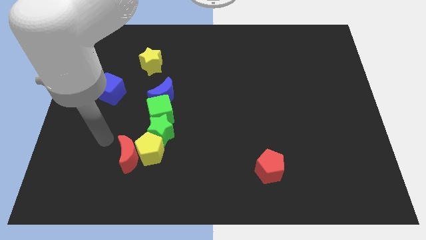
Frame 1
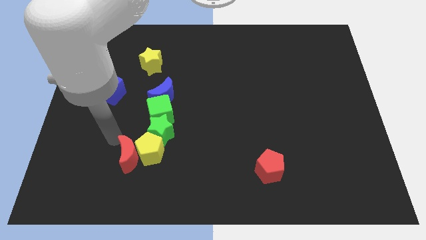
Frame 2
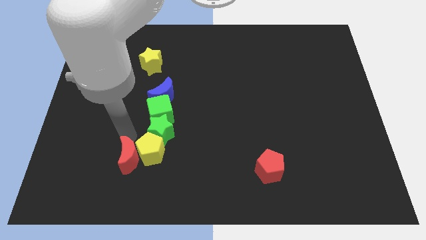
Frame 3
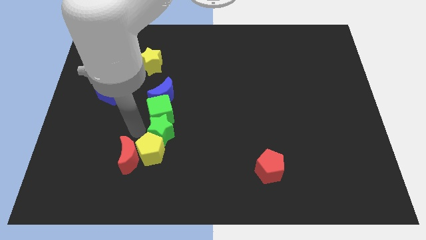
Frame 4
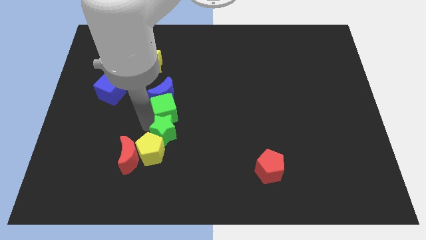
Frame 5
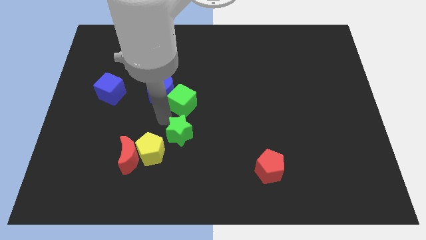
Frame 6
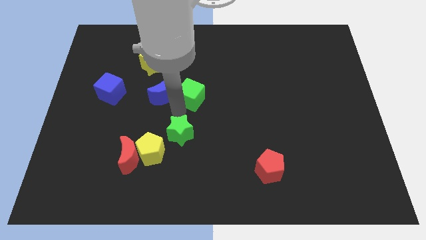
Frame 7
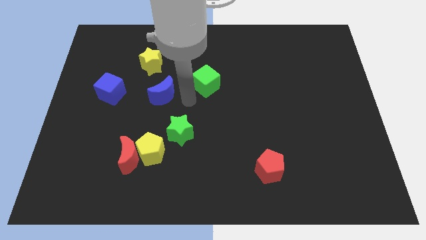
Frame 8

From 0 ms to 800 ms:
move the blue moon away from the green cube

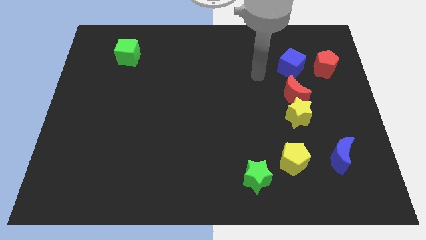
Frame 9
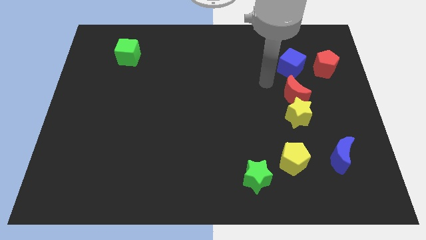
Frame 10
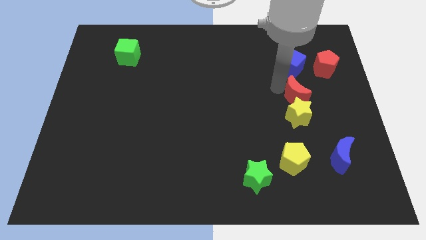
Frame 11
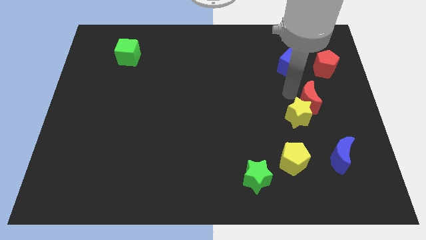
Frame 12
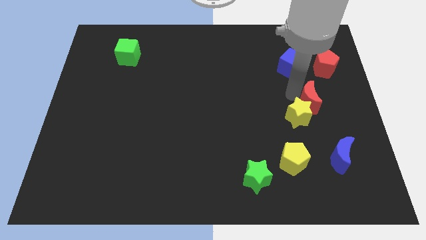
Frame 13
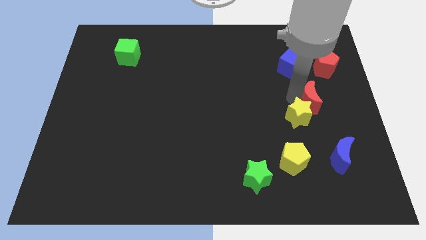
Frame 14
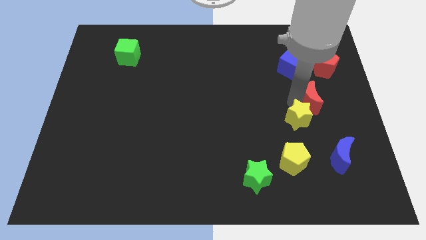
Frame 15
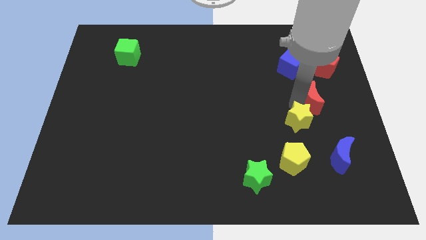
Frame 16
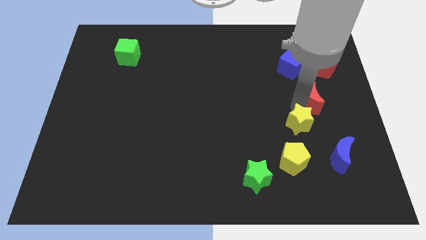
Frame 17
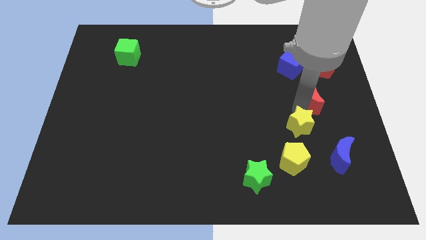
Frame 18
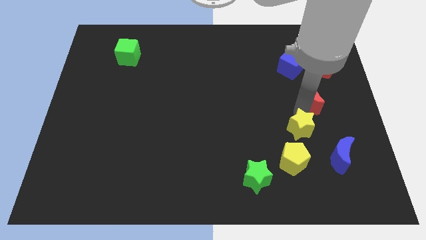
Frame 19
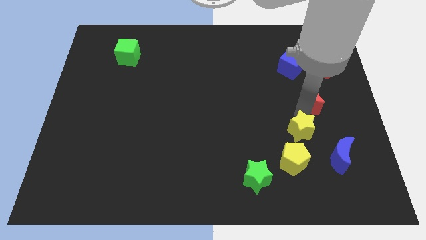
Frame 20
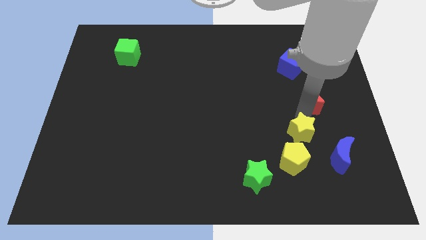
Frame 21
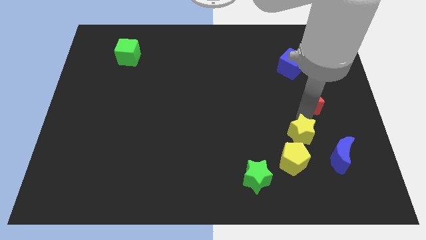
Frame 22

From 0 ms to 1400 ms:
pull the yellow star apart from the red moon

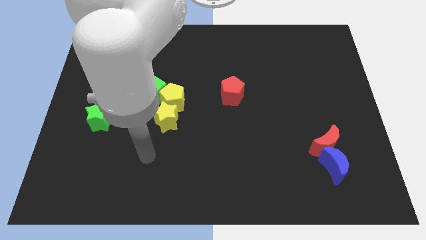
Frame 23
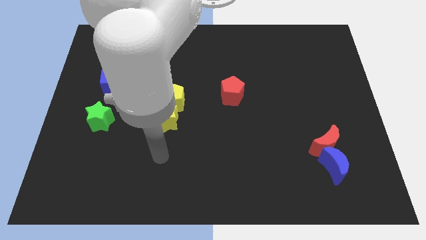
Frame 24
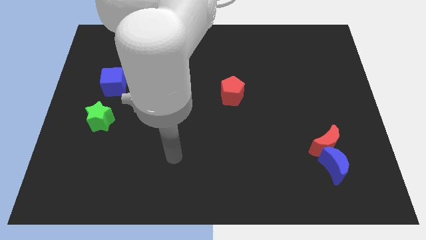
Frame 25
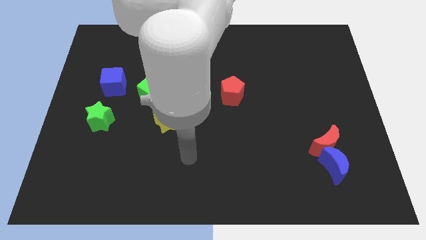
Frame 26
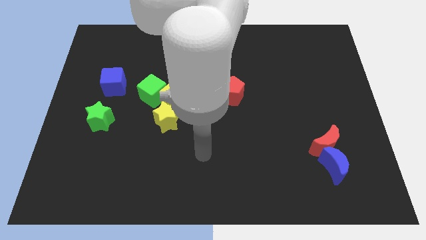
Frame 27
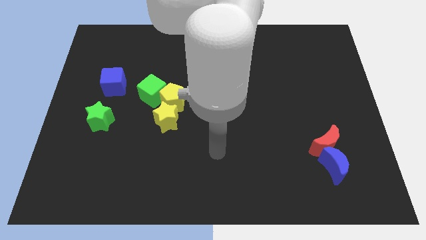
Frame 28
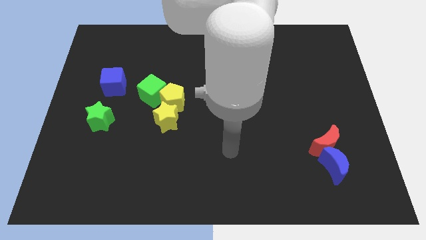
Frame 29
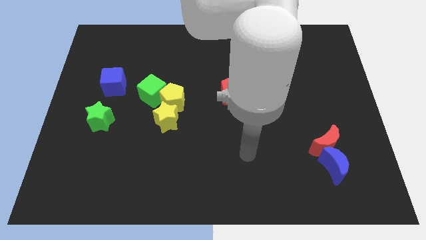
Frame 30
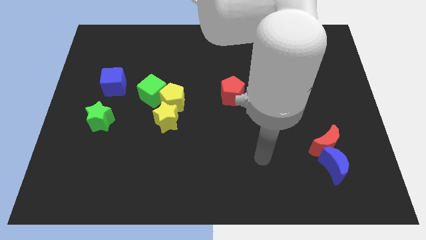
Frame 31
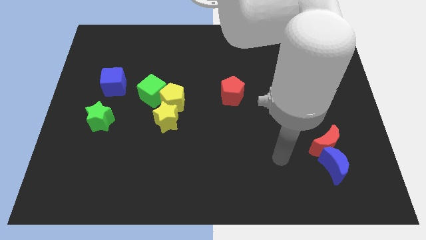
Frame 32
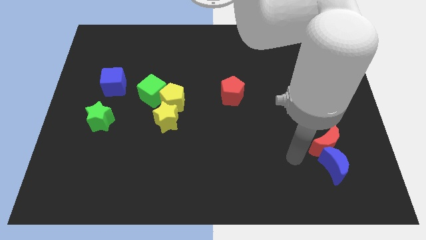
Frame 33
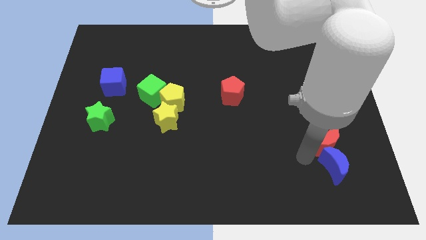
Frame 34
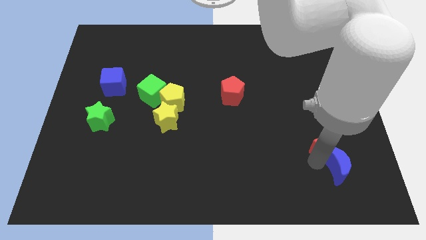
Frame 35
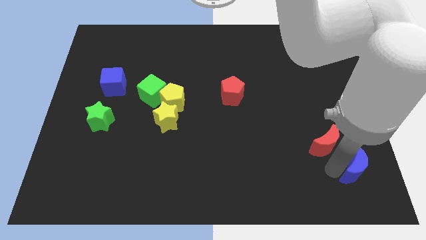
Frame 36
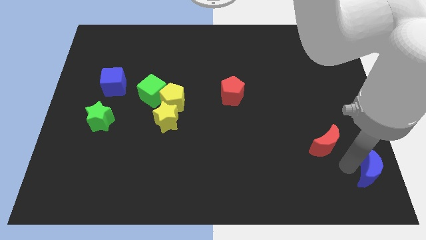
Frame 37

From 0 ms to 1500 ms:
move the red moon away from the blue moon

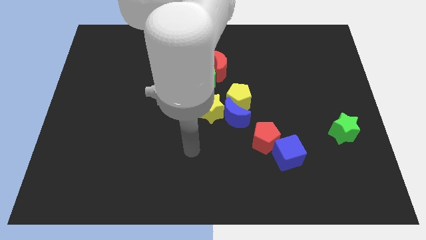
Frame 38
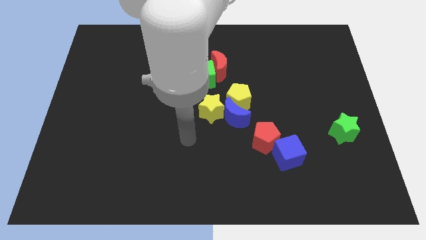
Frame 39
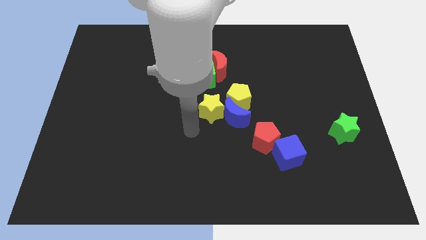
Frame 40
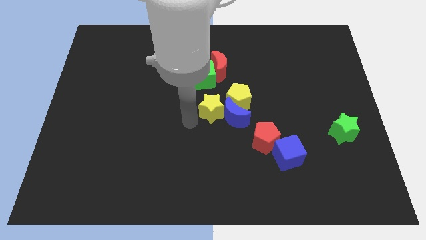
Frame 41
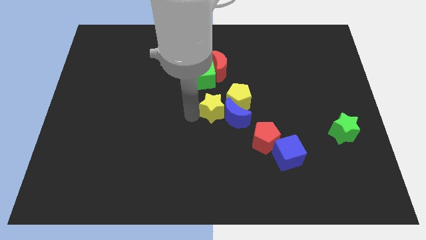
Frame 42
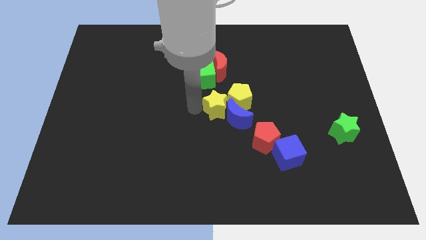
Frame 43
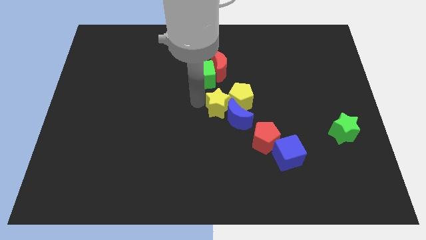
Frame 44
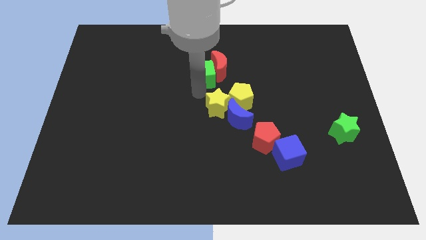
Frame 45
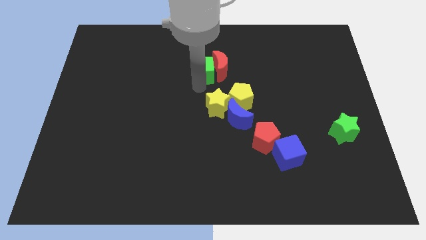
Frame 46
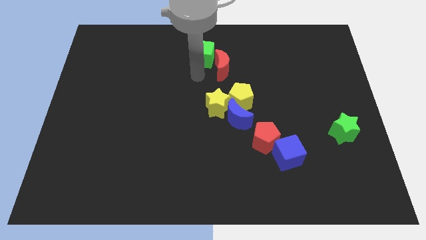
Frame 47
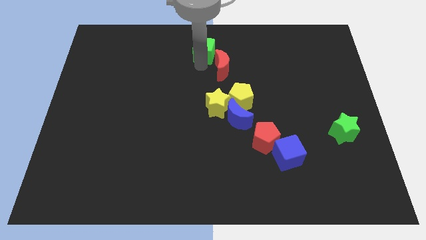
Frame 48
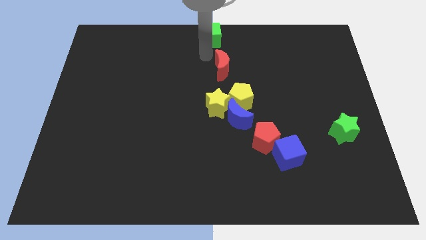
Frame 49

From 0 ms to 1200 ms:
move the red moon away from the green cube

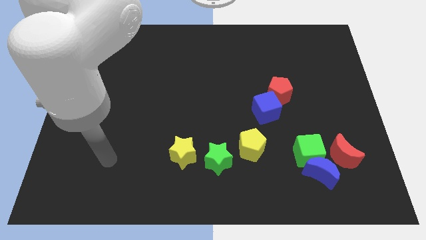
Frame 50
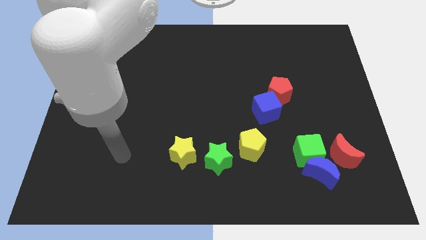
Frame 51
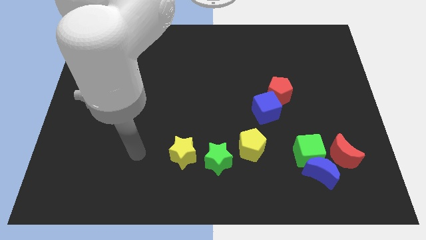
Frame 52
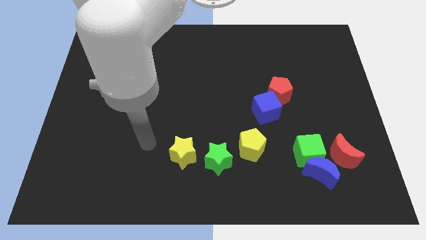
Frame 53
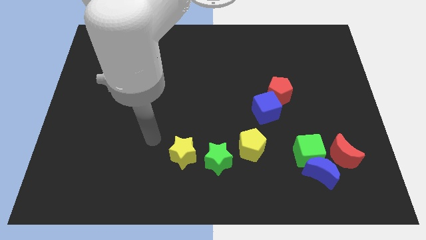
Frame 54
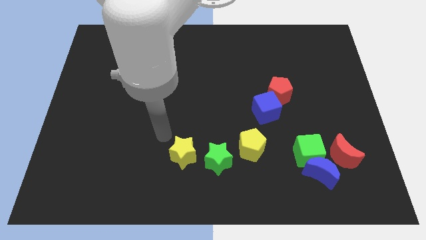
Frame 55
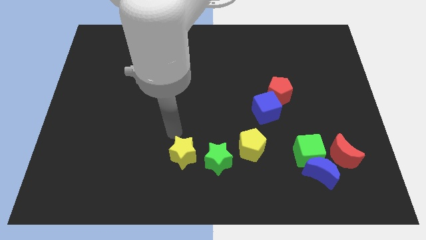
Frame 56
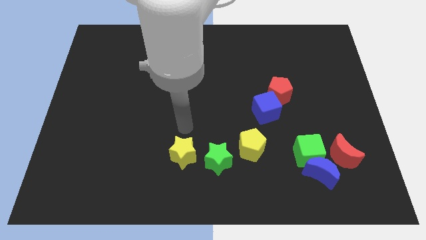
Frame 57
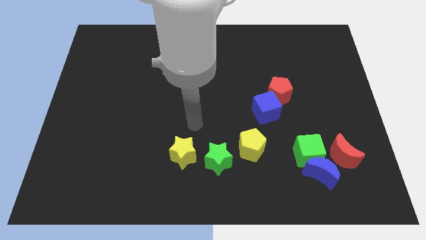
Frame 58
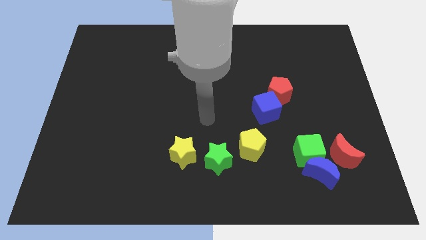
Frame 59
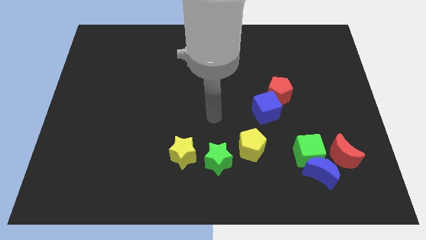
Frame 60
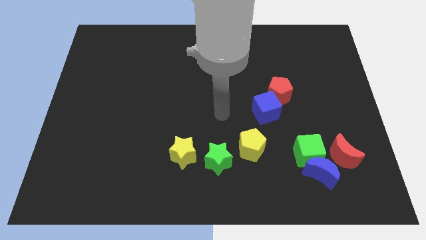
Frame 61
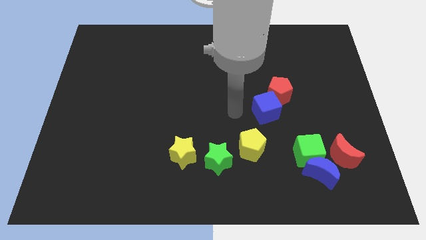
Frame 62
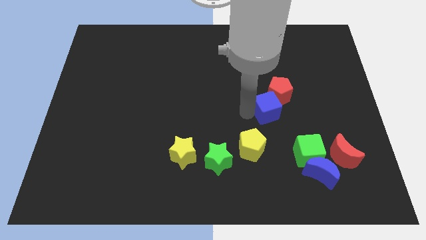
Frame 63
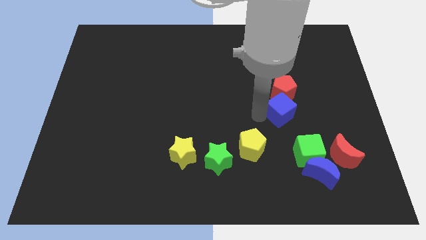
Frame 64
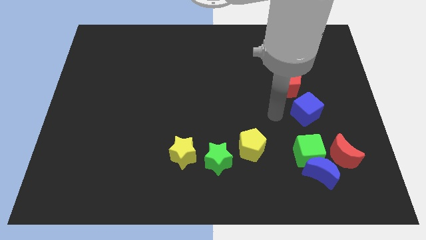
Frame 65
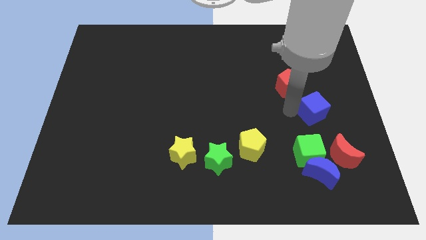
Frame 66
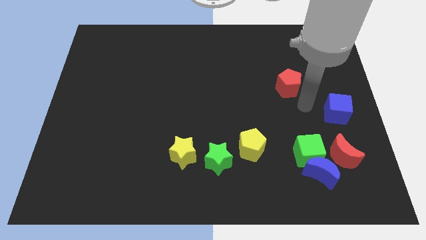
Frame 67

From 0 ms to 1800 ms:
separate the red pentagon from the blue cube

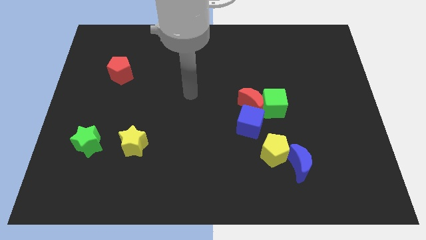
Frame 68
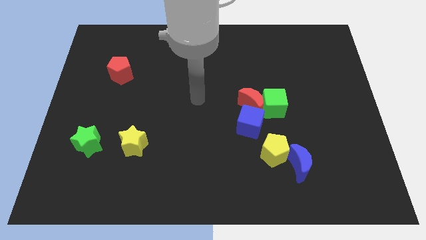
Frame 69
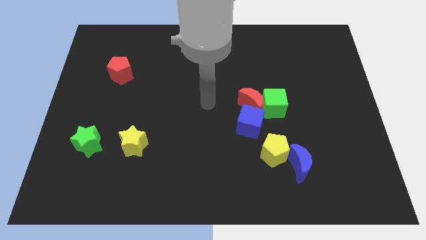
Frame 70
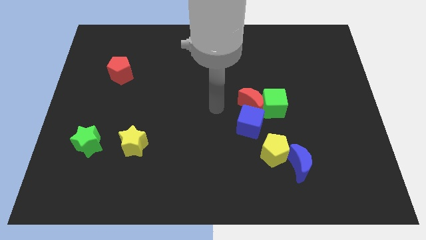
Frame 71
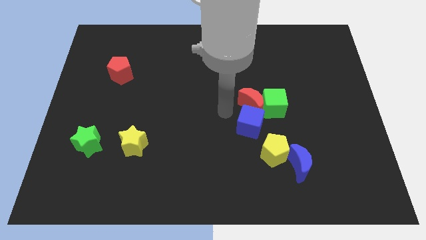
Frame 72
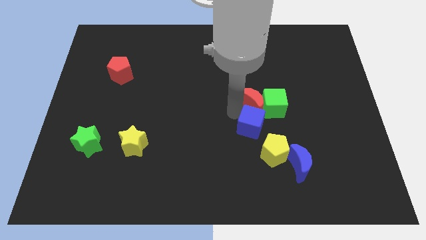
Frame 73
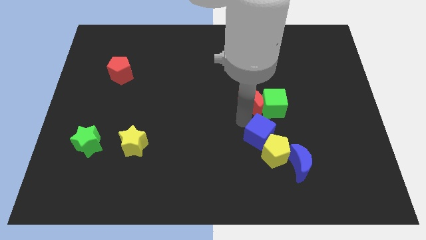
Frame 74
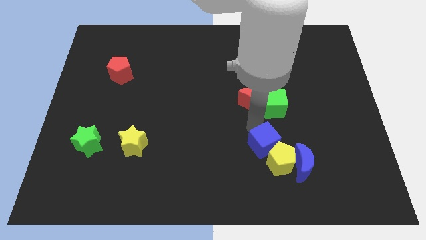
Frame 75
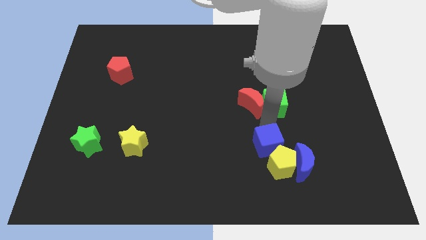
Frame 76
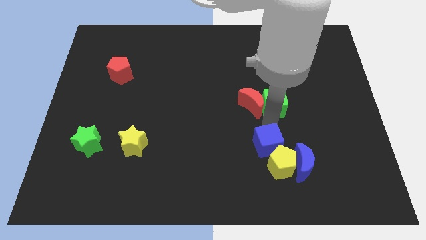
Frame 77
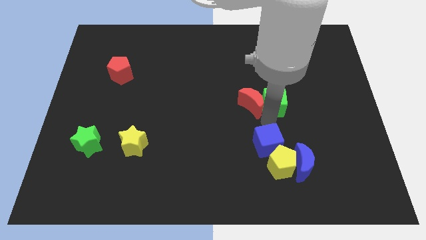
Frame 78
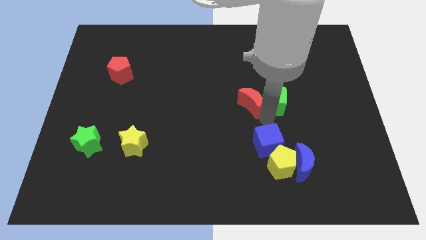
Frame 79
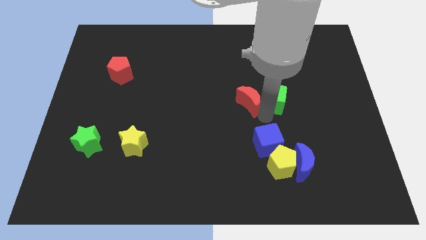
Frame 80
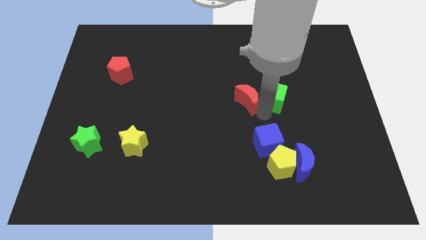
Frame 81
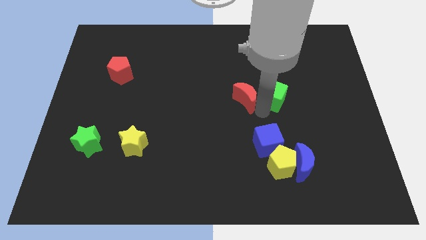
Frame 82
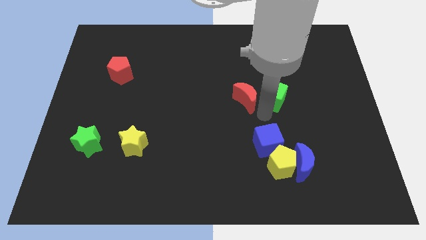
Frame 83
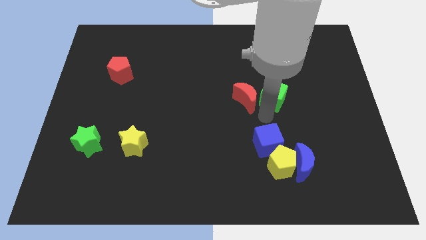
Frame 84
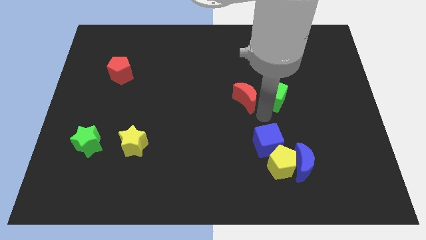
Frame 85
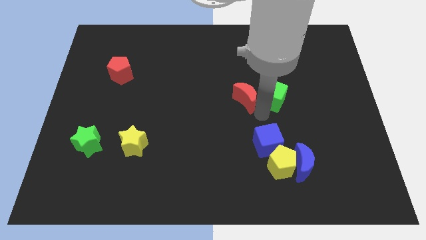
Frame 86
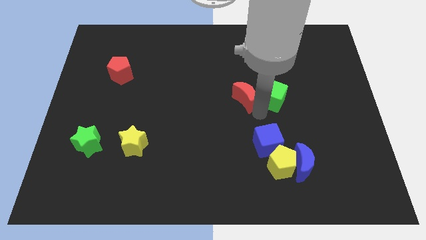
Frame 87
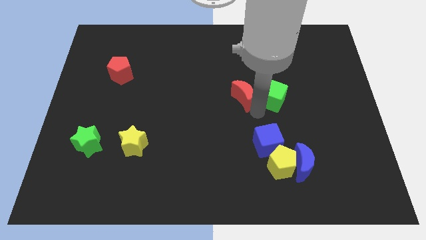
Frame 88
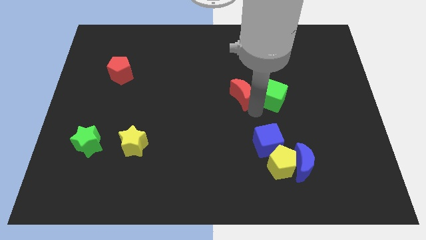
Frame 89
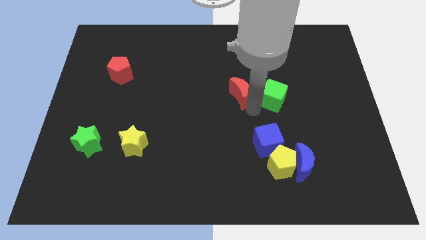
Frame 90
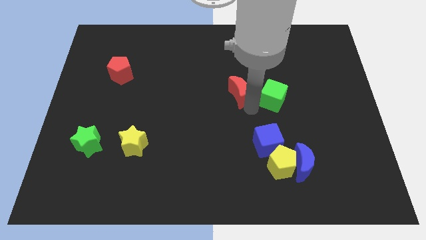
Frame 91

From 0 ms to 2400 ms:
pull the red moon apart from the green cube and blue cube
